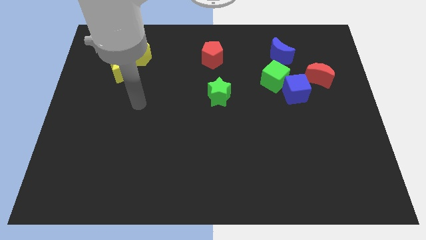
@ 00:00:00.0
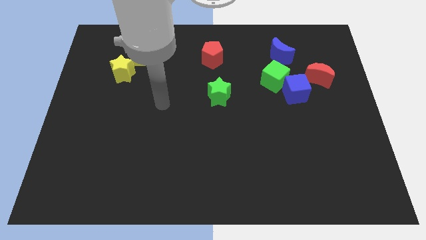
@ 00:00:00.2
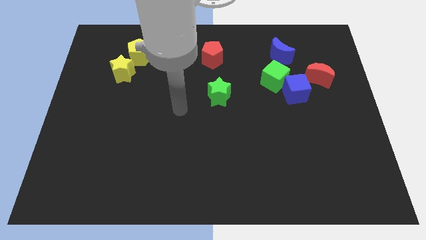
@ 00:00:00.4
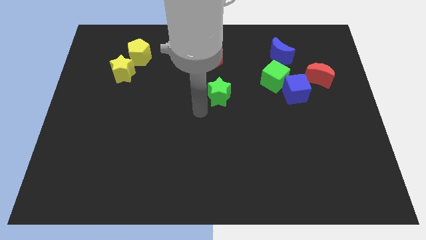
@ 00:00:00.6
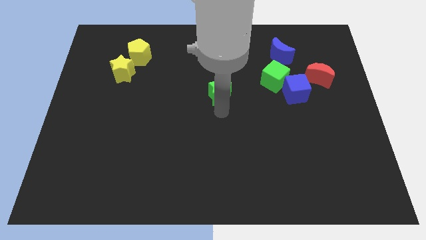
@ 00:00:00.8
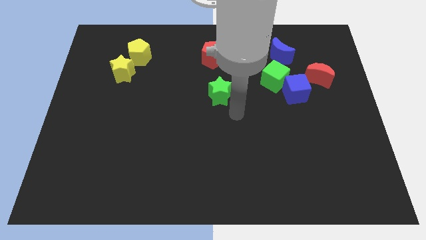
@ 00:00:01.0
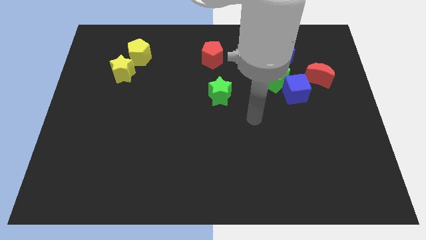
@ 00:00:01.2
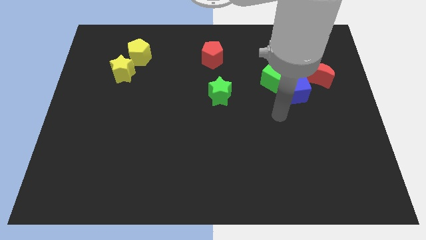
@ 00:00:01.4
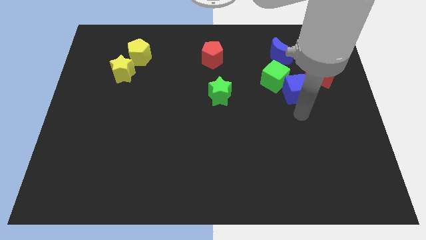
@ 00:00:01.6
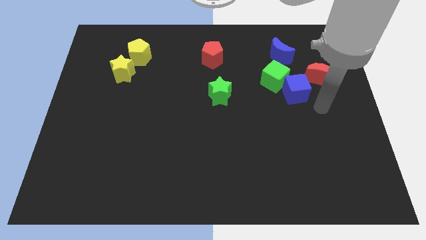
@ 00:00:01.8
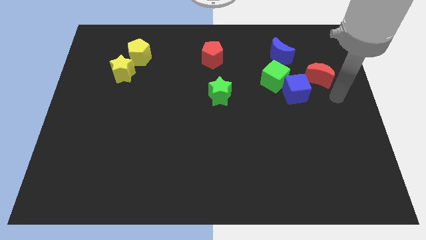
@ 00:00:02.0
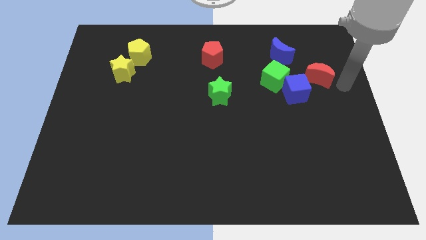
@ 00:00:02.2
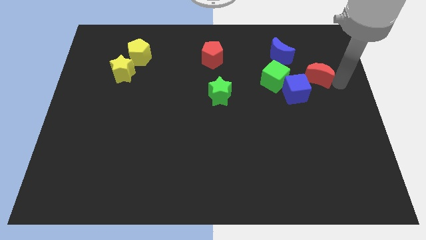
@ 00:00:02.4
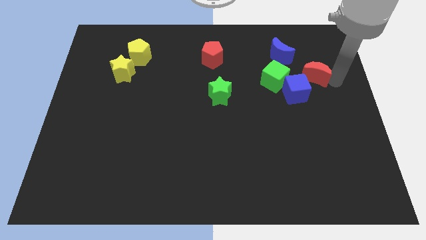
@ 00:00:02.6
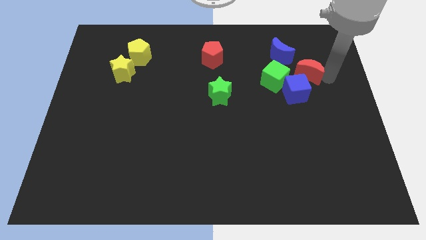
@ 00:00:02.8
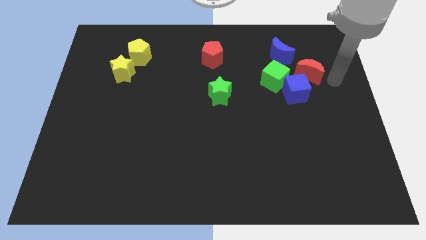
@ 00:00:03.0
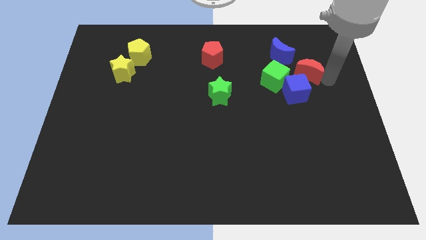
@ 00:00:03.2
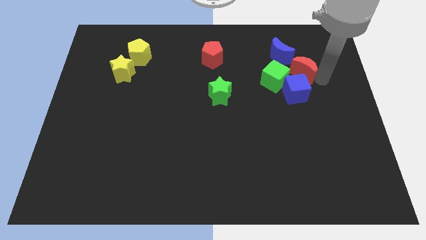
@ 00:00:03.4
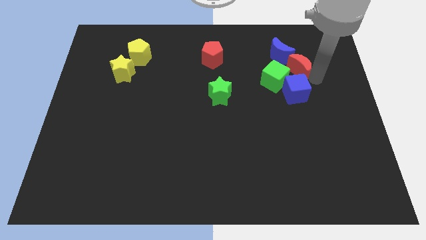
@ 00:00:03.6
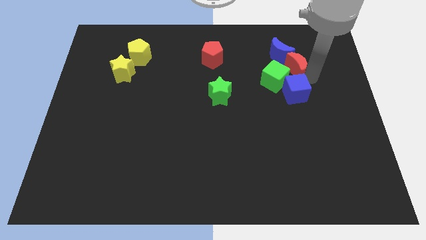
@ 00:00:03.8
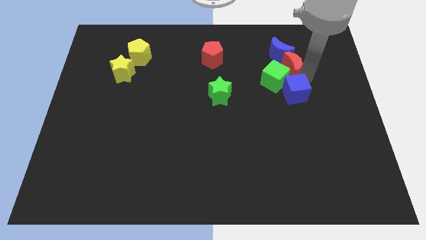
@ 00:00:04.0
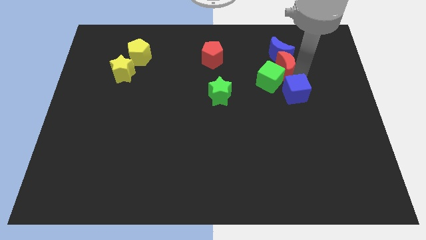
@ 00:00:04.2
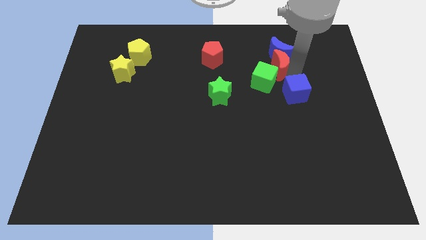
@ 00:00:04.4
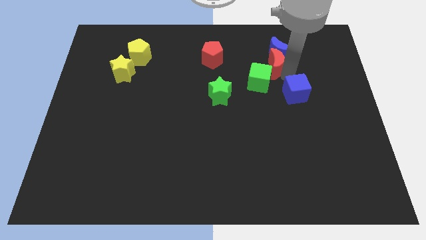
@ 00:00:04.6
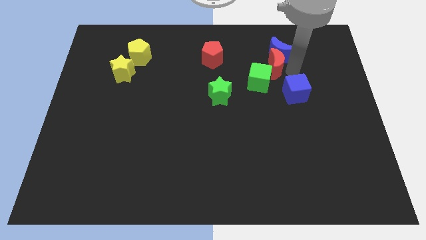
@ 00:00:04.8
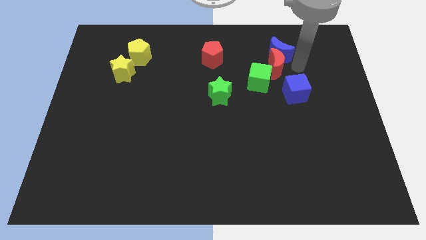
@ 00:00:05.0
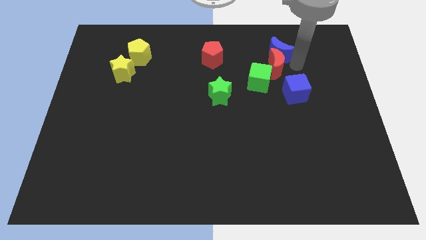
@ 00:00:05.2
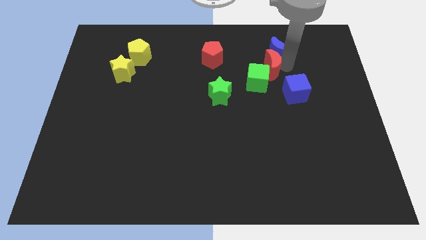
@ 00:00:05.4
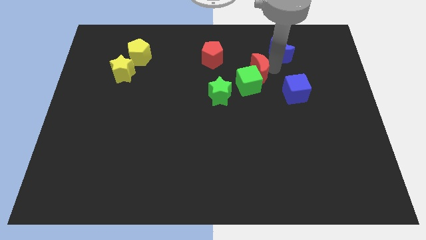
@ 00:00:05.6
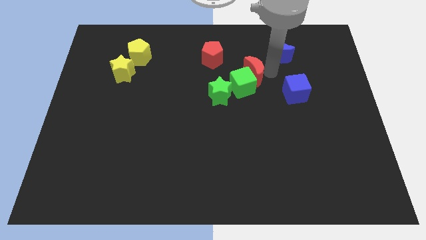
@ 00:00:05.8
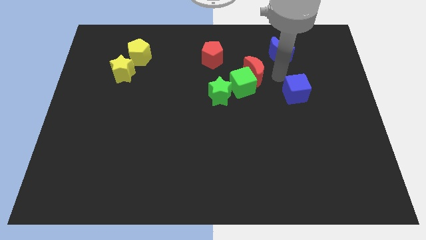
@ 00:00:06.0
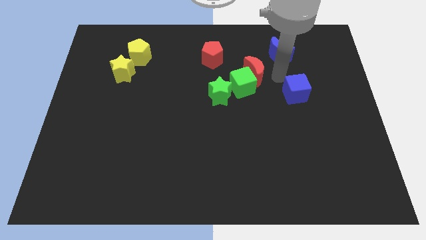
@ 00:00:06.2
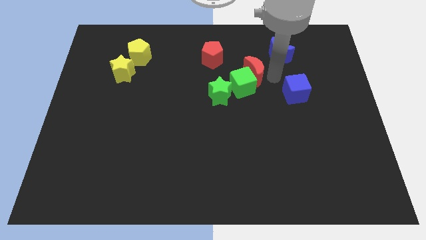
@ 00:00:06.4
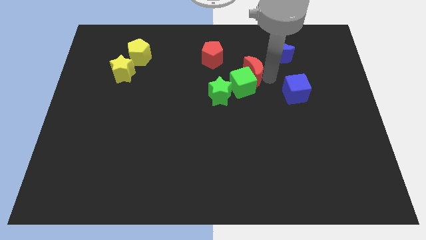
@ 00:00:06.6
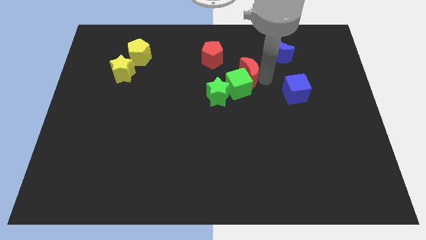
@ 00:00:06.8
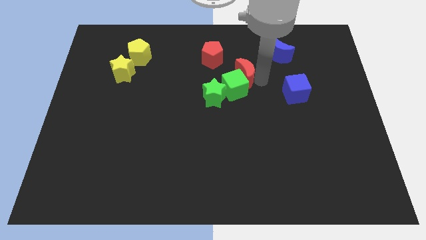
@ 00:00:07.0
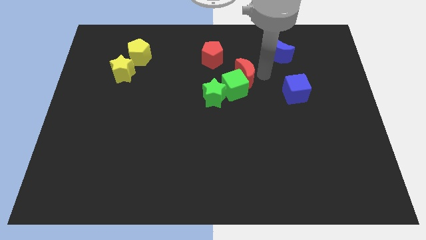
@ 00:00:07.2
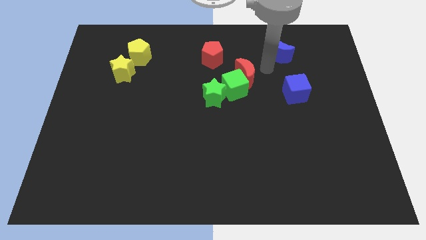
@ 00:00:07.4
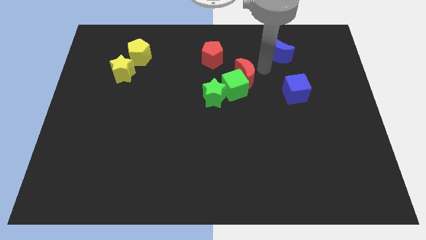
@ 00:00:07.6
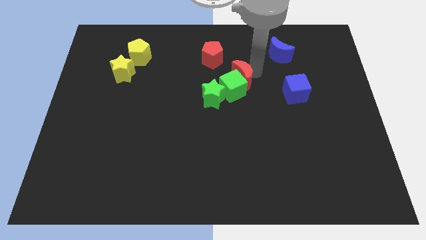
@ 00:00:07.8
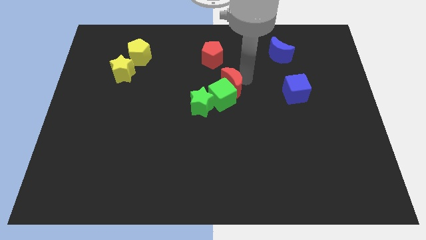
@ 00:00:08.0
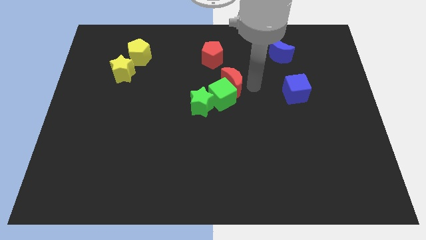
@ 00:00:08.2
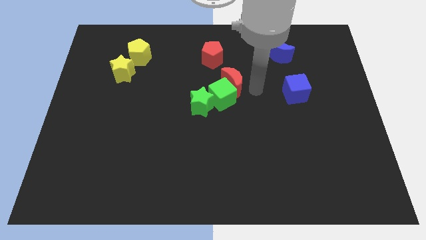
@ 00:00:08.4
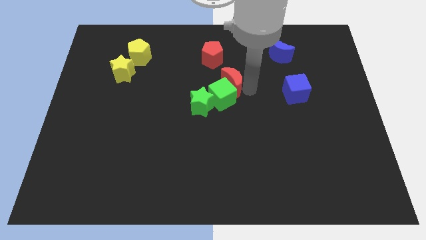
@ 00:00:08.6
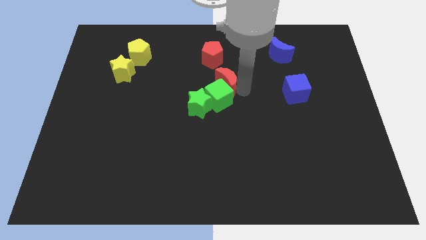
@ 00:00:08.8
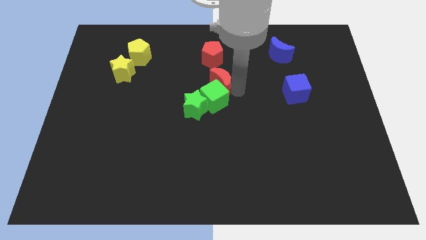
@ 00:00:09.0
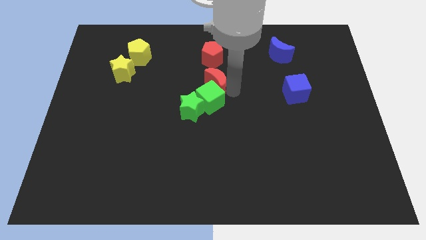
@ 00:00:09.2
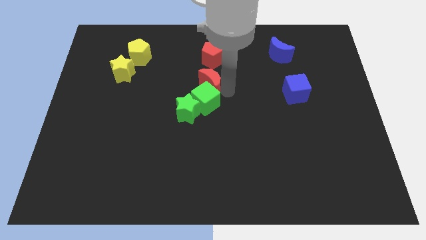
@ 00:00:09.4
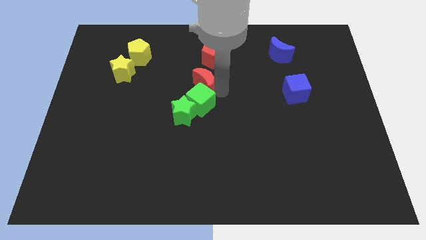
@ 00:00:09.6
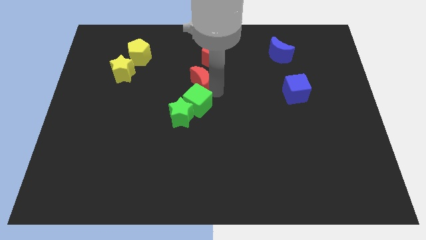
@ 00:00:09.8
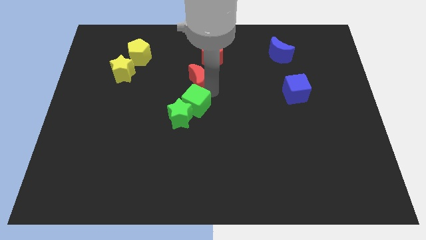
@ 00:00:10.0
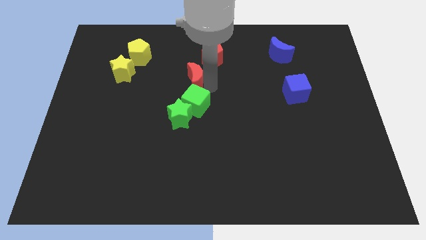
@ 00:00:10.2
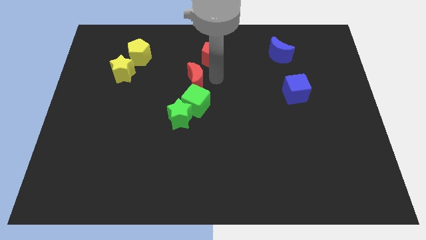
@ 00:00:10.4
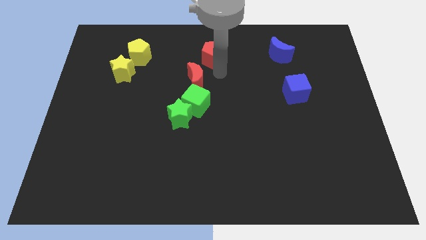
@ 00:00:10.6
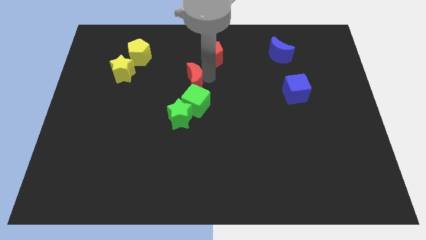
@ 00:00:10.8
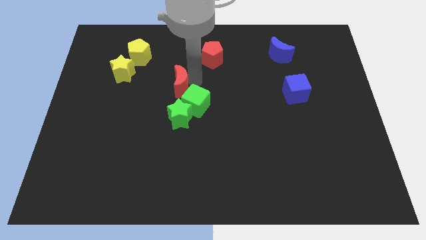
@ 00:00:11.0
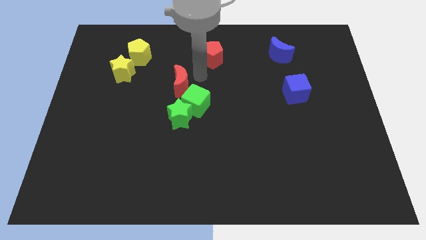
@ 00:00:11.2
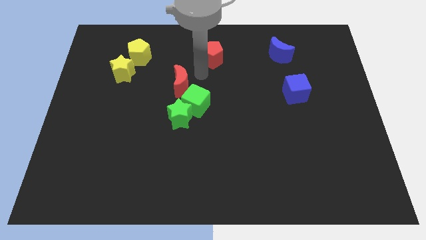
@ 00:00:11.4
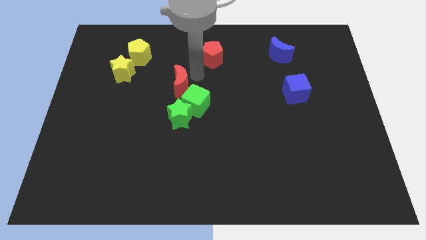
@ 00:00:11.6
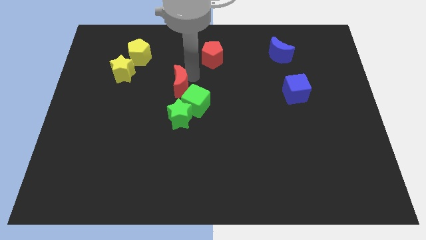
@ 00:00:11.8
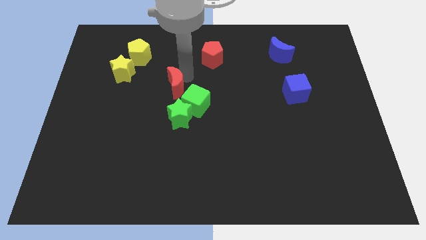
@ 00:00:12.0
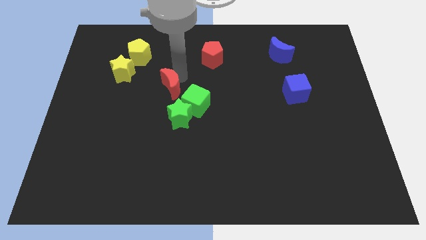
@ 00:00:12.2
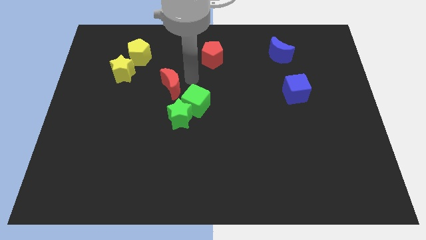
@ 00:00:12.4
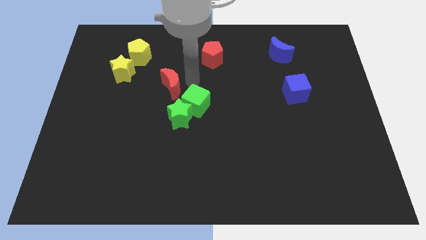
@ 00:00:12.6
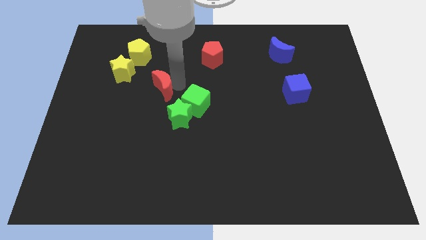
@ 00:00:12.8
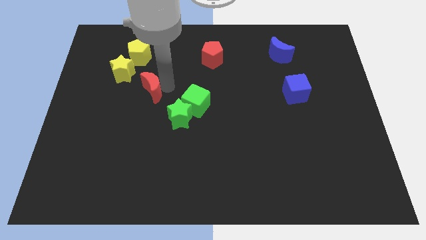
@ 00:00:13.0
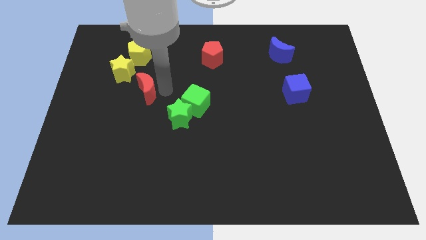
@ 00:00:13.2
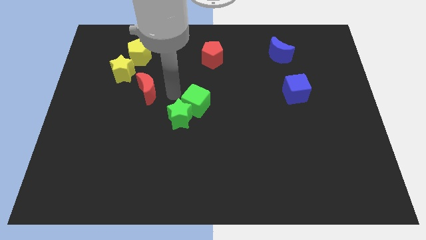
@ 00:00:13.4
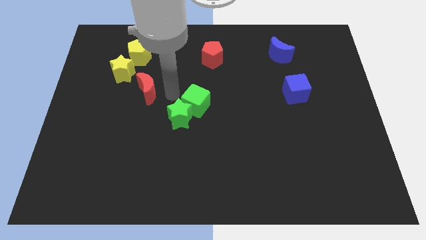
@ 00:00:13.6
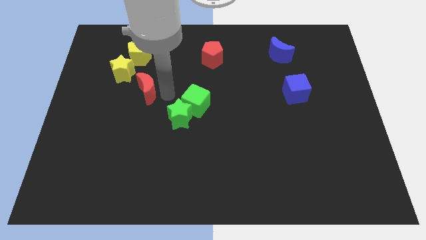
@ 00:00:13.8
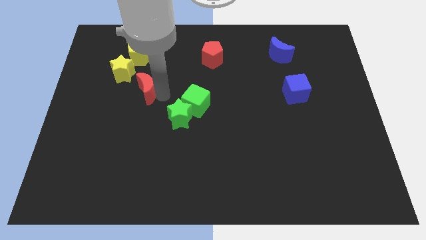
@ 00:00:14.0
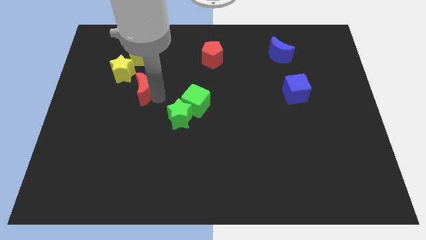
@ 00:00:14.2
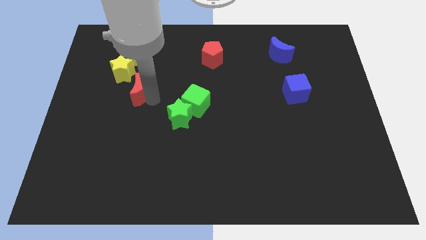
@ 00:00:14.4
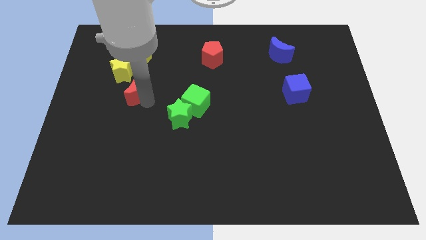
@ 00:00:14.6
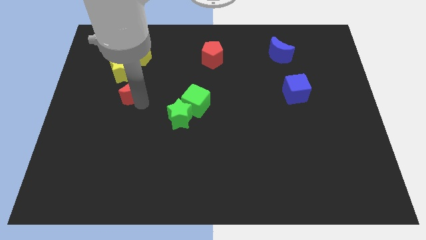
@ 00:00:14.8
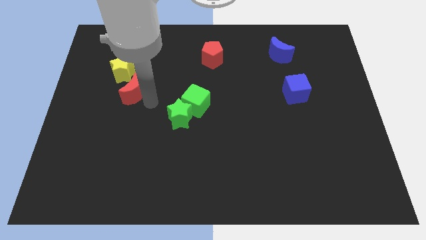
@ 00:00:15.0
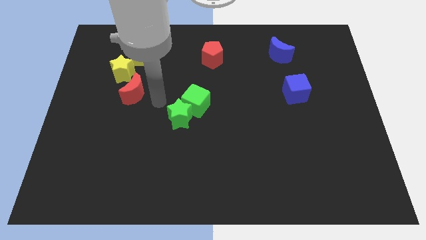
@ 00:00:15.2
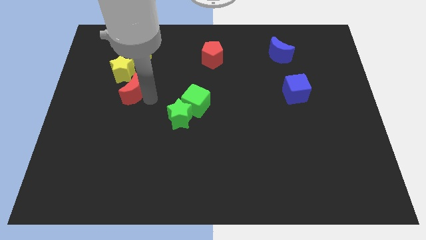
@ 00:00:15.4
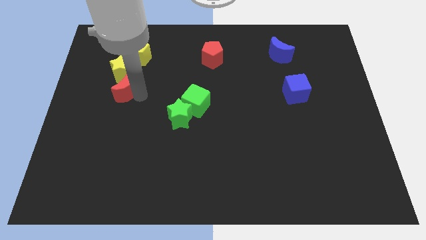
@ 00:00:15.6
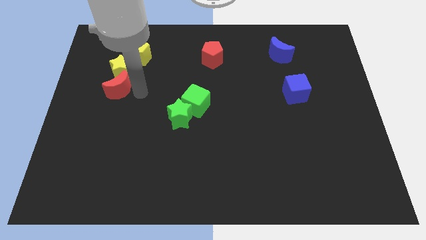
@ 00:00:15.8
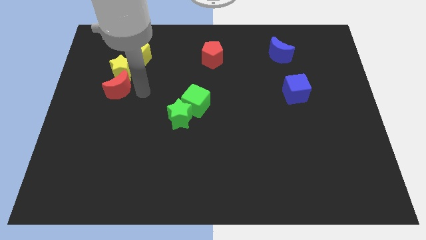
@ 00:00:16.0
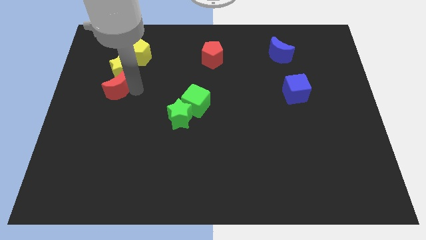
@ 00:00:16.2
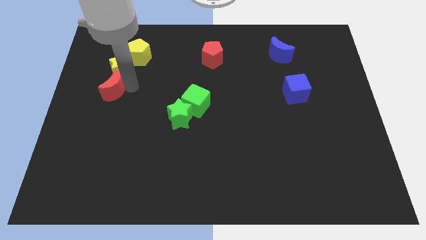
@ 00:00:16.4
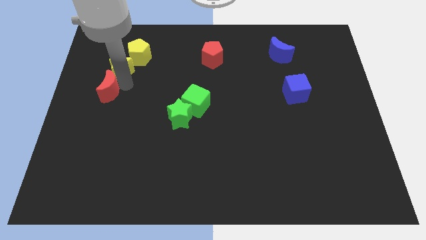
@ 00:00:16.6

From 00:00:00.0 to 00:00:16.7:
push the red moon to the left side of the board
